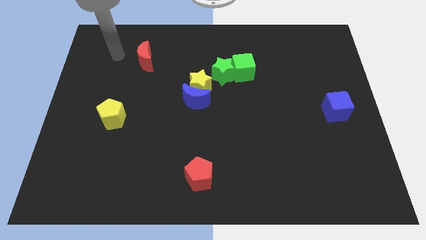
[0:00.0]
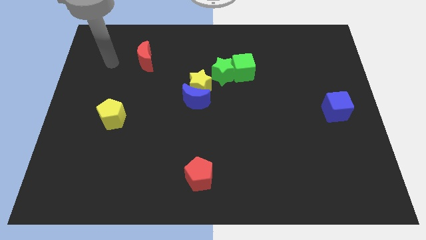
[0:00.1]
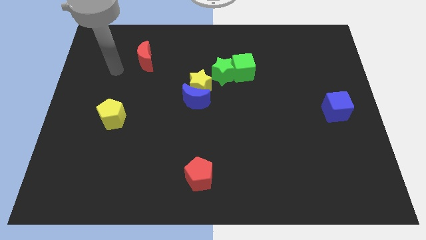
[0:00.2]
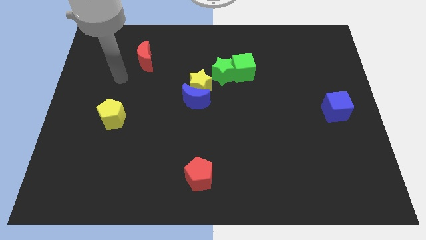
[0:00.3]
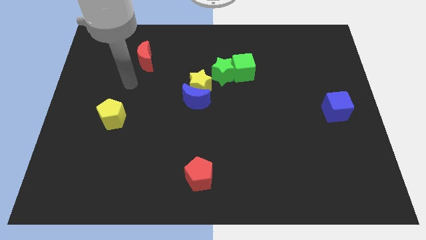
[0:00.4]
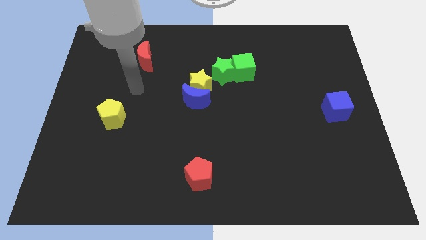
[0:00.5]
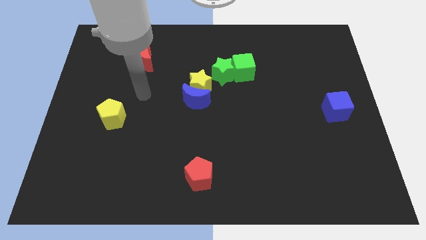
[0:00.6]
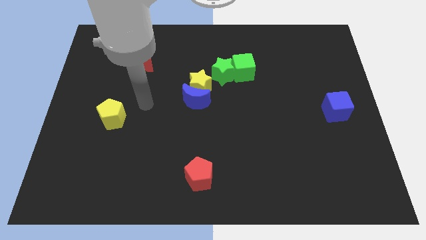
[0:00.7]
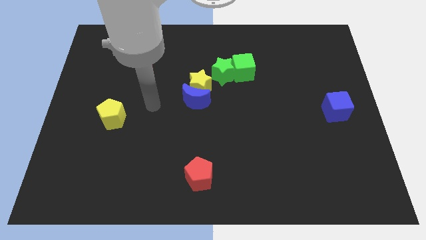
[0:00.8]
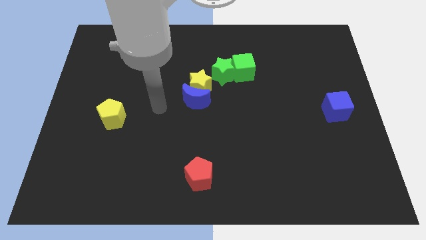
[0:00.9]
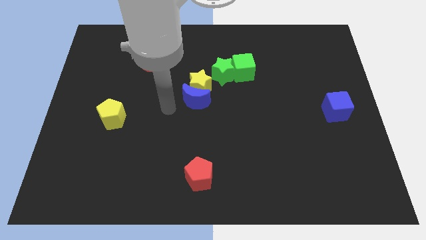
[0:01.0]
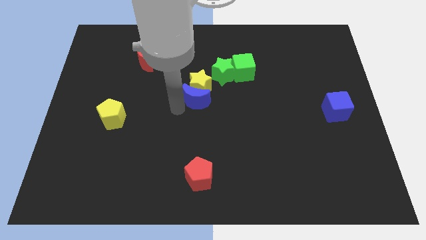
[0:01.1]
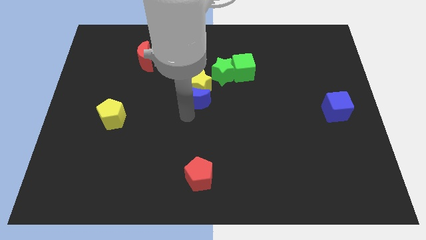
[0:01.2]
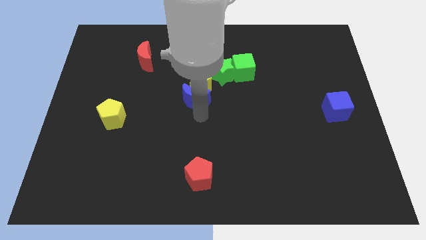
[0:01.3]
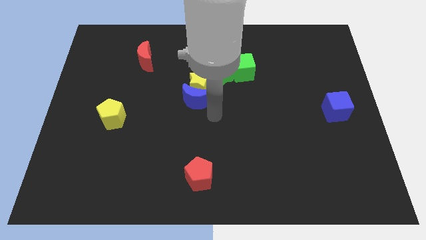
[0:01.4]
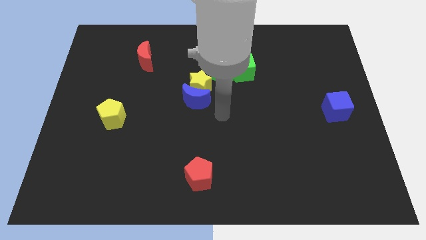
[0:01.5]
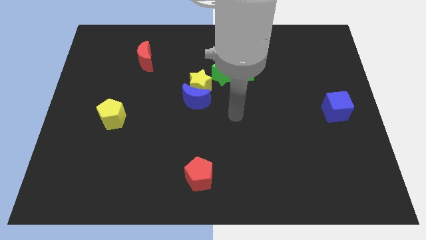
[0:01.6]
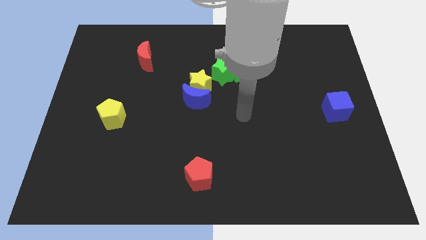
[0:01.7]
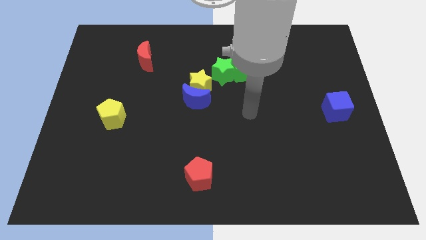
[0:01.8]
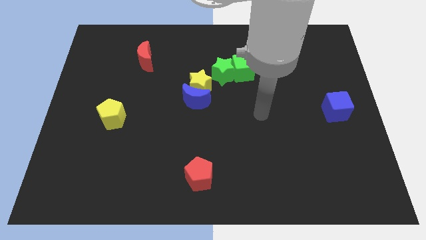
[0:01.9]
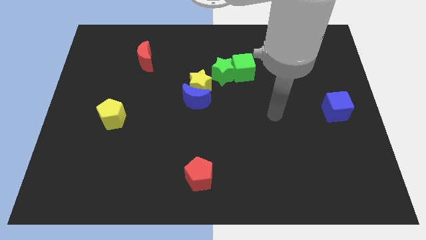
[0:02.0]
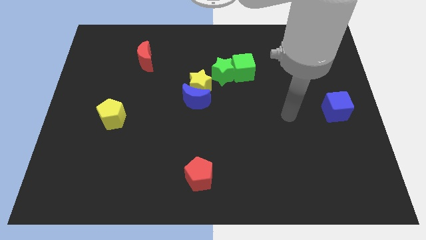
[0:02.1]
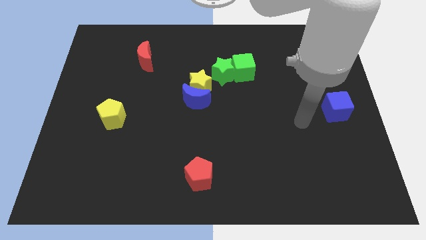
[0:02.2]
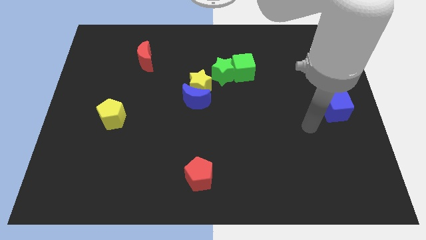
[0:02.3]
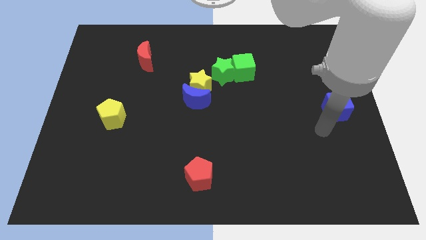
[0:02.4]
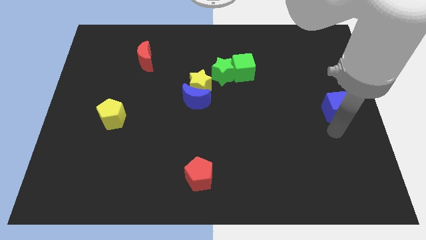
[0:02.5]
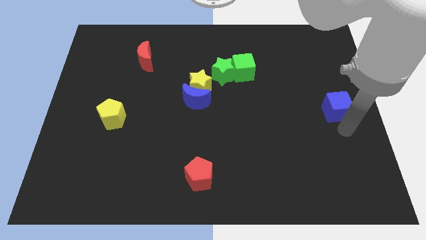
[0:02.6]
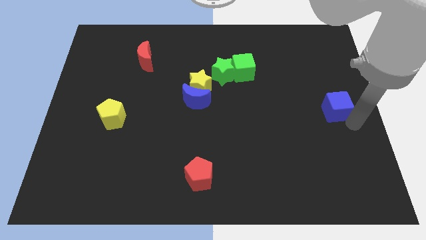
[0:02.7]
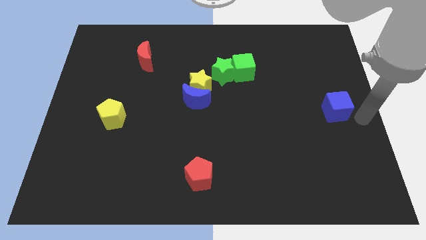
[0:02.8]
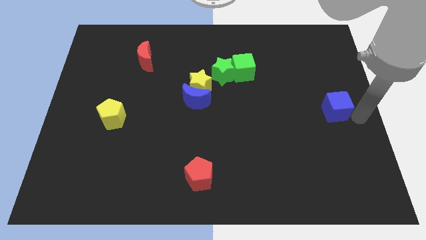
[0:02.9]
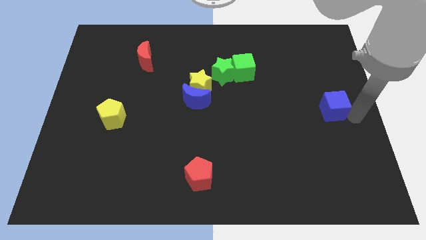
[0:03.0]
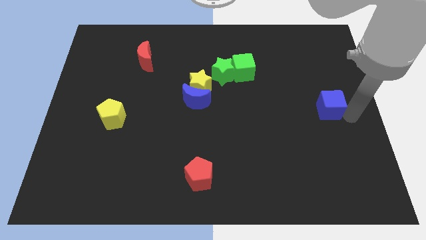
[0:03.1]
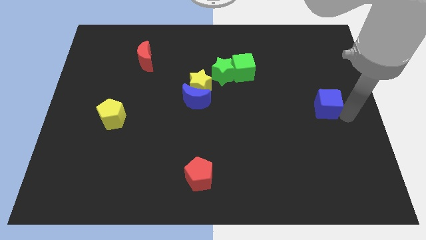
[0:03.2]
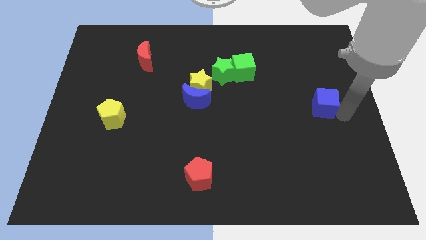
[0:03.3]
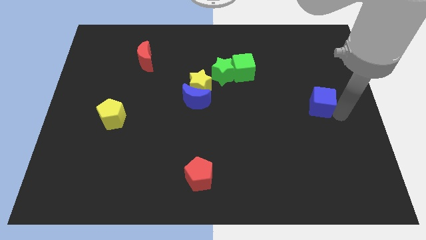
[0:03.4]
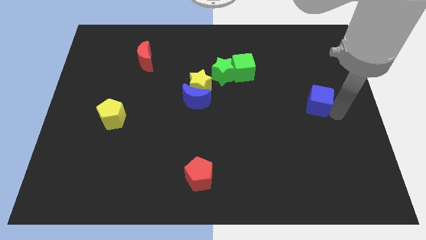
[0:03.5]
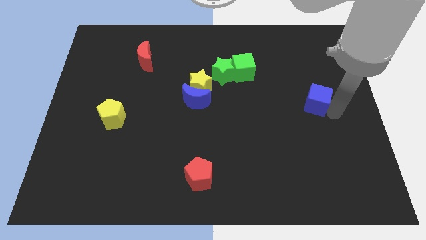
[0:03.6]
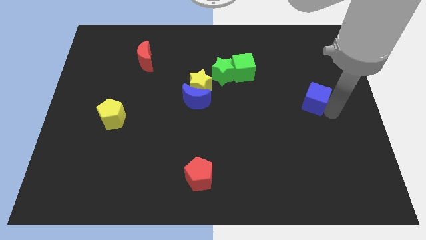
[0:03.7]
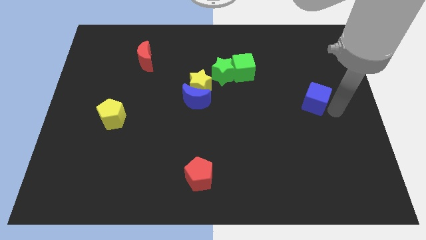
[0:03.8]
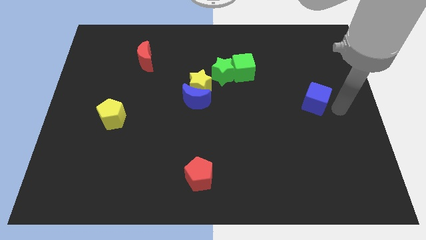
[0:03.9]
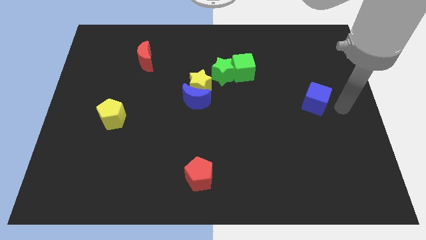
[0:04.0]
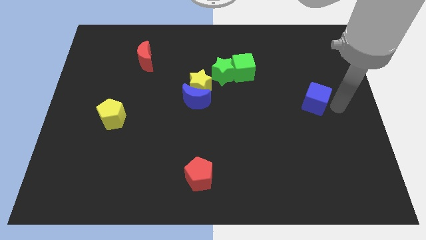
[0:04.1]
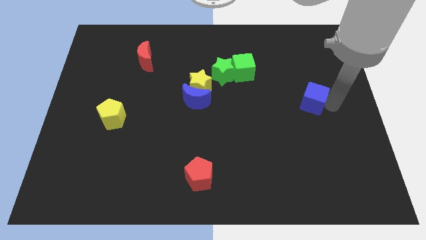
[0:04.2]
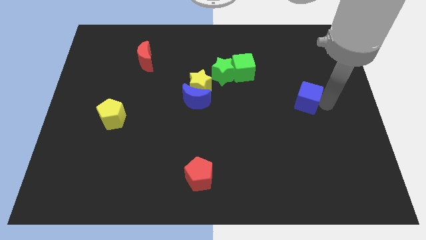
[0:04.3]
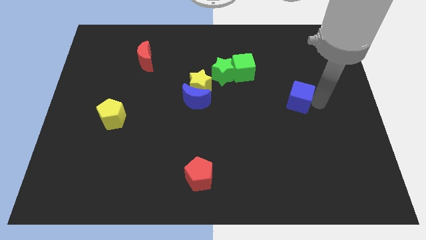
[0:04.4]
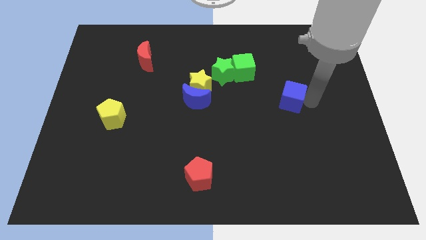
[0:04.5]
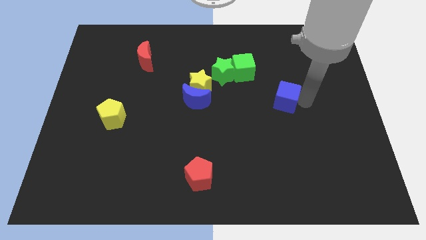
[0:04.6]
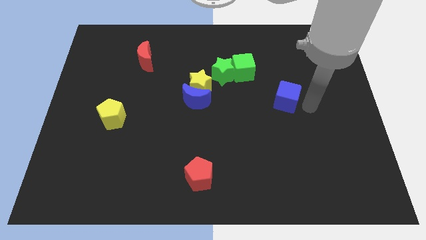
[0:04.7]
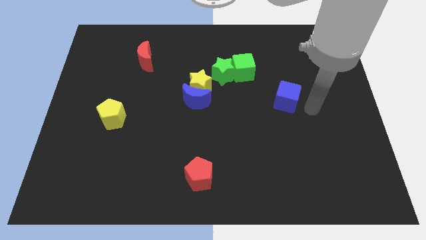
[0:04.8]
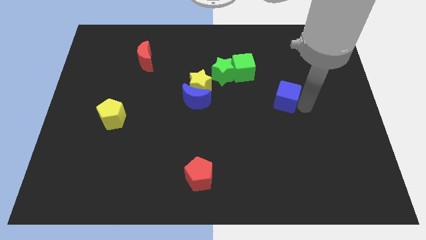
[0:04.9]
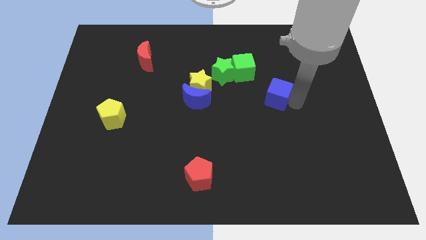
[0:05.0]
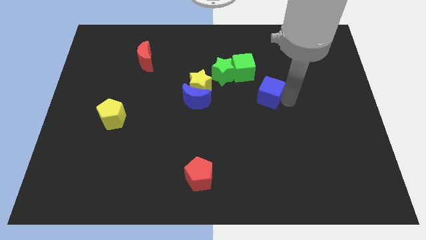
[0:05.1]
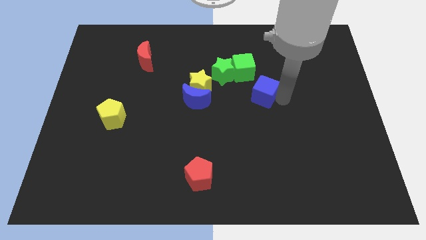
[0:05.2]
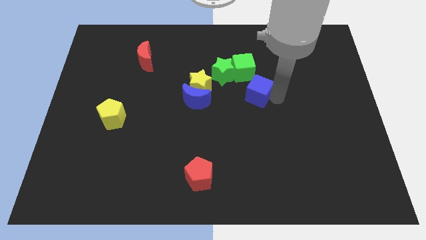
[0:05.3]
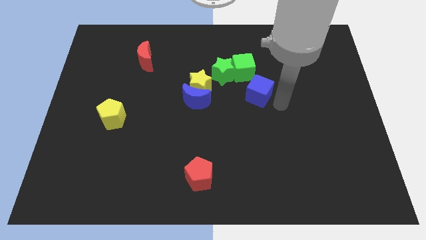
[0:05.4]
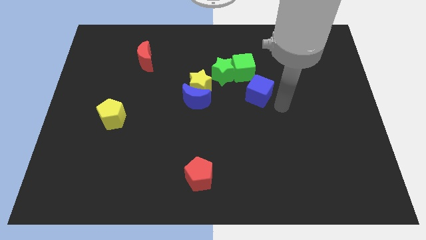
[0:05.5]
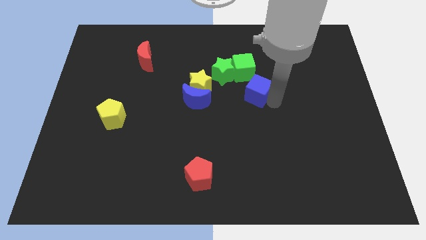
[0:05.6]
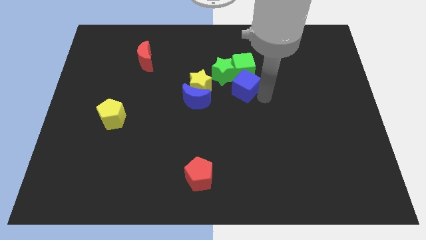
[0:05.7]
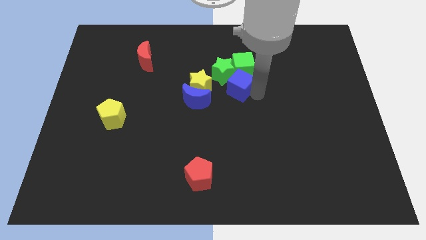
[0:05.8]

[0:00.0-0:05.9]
push the blue cube next to the green star

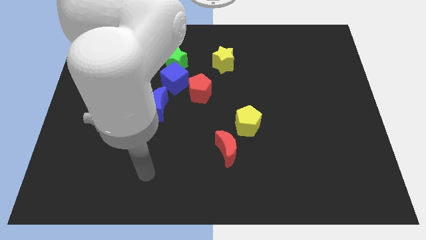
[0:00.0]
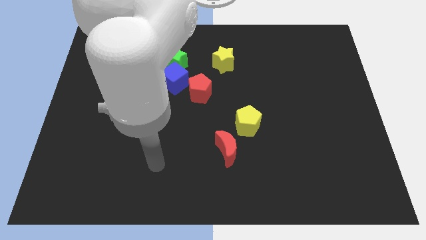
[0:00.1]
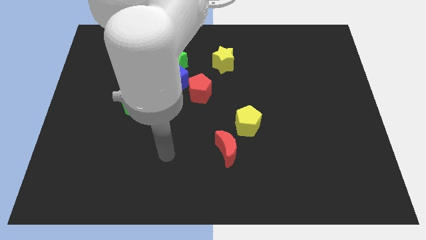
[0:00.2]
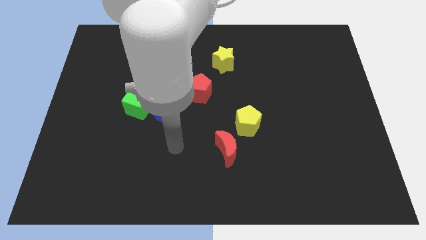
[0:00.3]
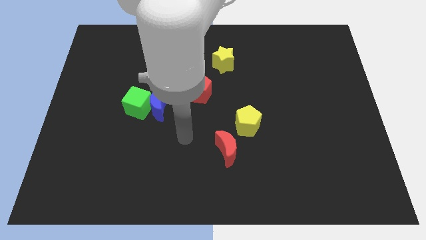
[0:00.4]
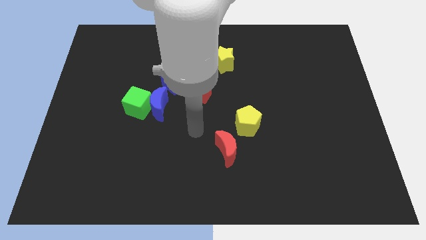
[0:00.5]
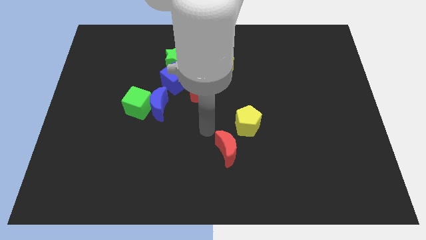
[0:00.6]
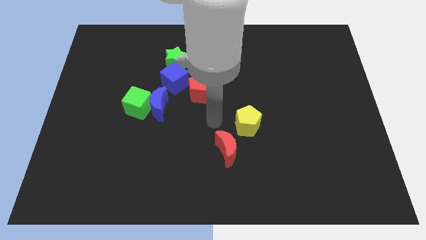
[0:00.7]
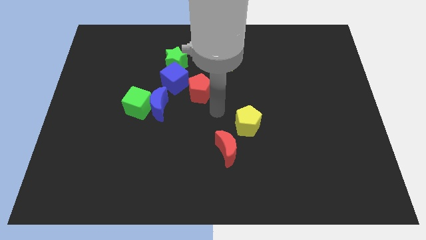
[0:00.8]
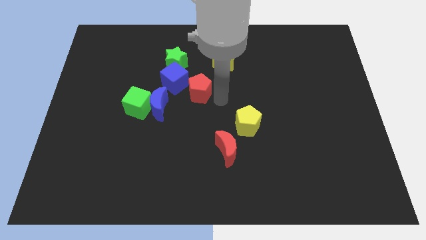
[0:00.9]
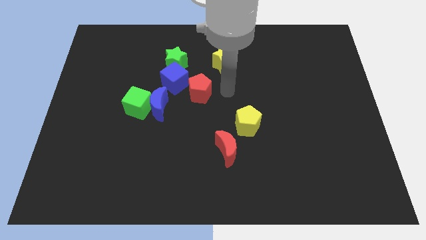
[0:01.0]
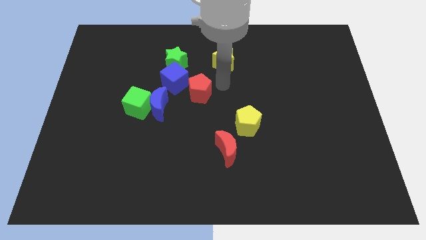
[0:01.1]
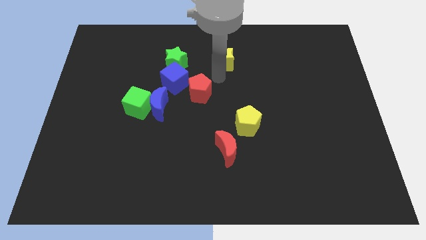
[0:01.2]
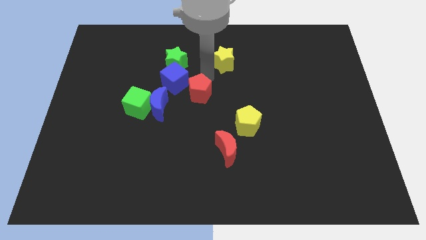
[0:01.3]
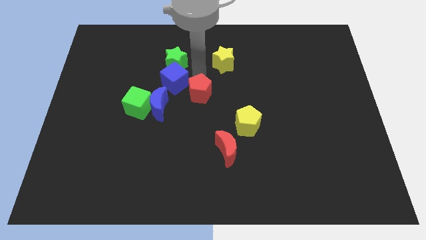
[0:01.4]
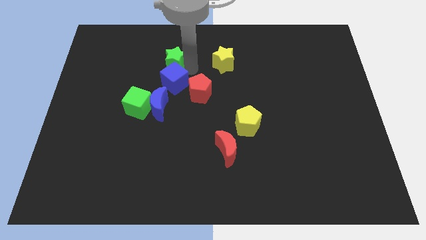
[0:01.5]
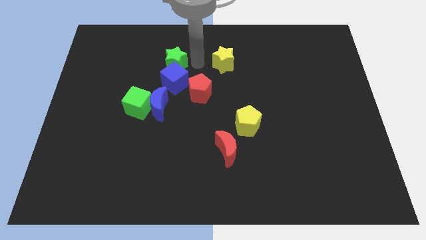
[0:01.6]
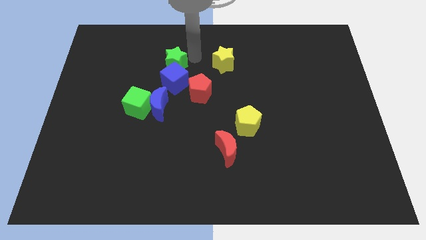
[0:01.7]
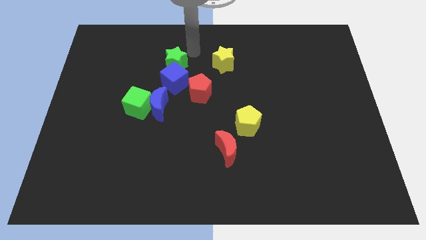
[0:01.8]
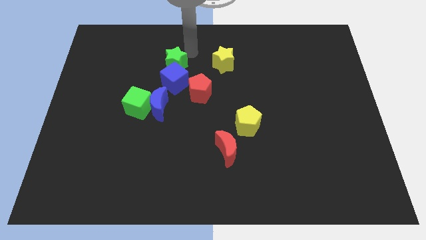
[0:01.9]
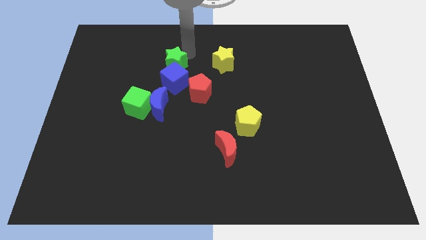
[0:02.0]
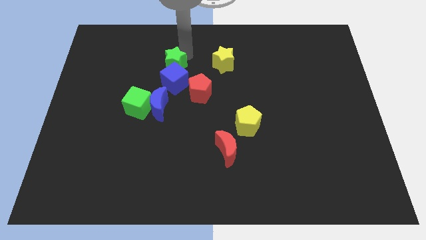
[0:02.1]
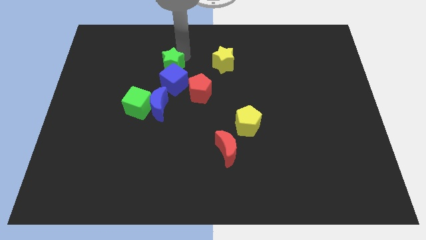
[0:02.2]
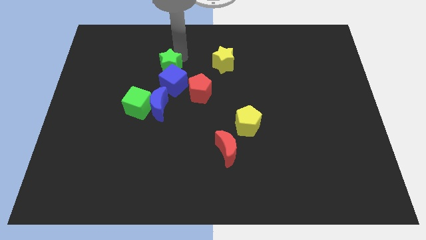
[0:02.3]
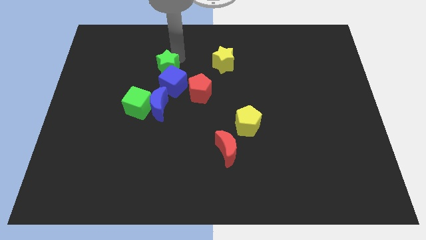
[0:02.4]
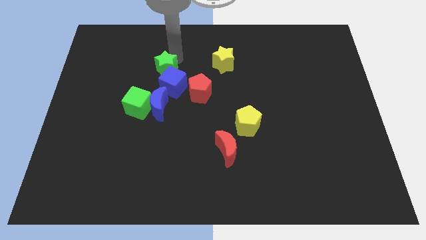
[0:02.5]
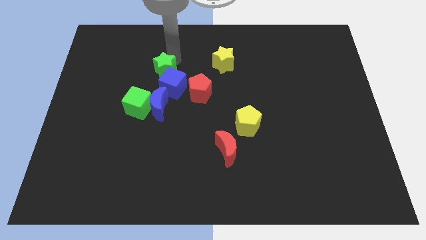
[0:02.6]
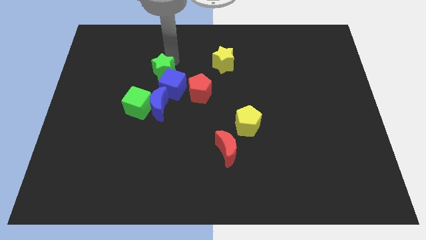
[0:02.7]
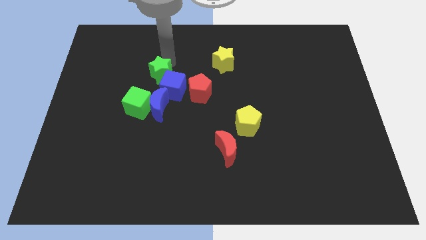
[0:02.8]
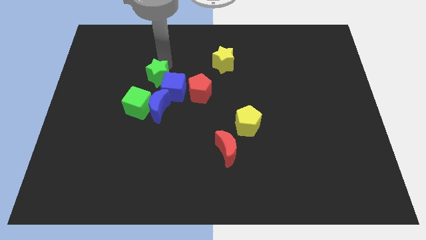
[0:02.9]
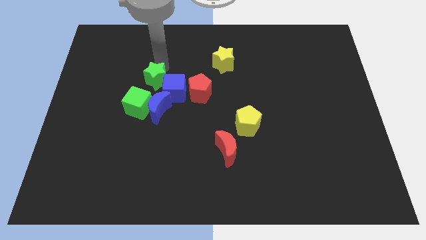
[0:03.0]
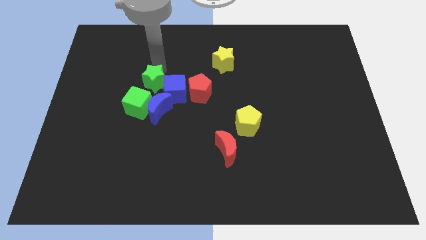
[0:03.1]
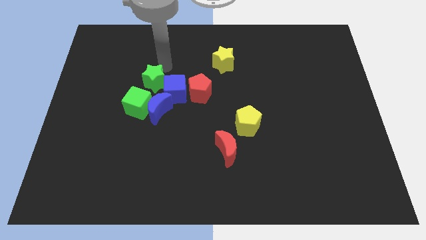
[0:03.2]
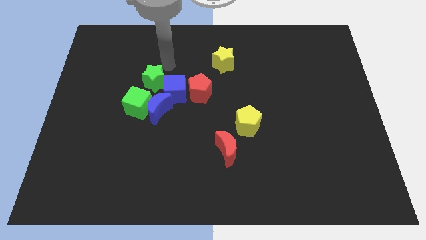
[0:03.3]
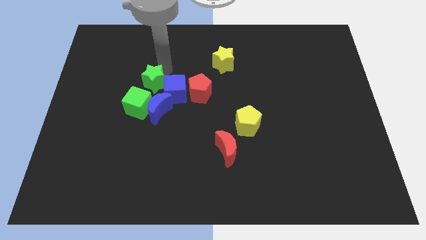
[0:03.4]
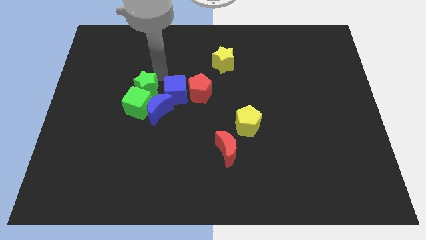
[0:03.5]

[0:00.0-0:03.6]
slide the green star close to the green cube
